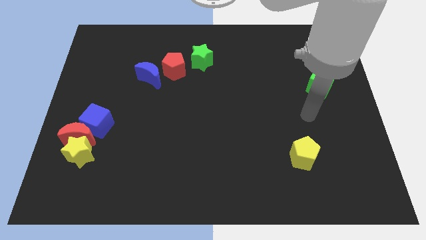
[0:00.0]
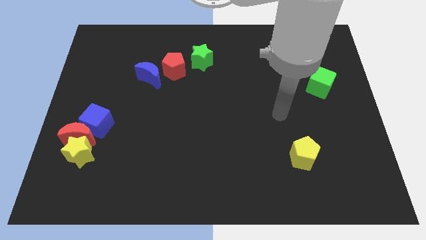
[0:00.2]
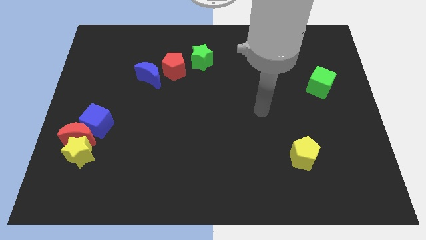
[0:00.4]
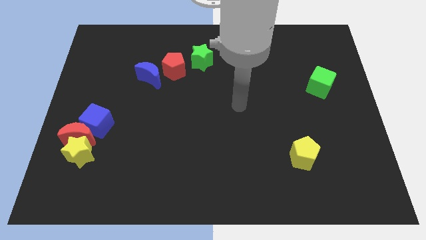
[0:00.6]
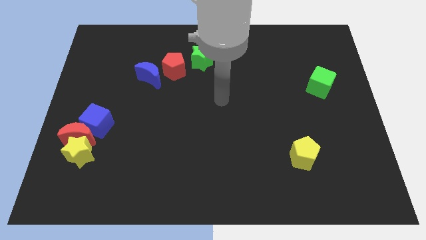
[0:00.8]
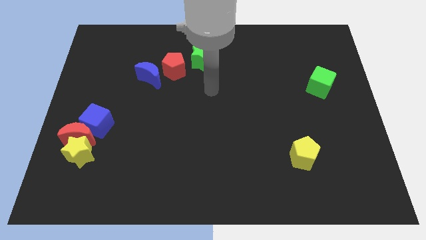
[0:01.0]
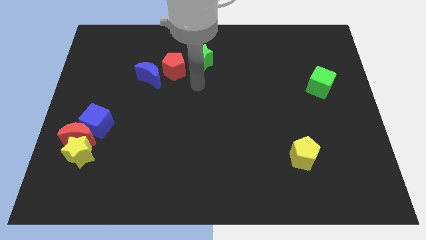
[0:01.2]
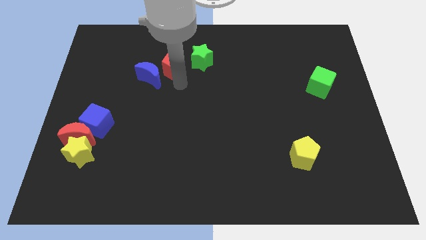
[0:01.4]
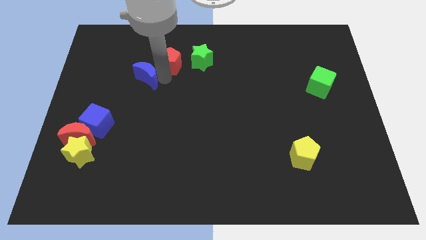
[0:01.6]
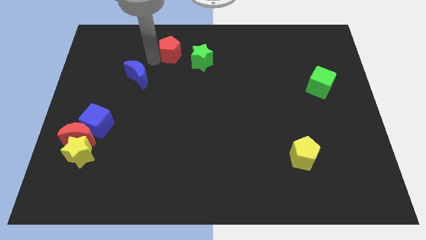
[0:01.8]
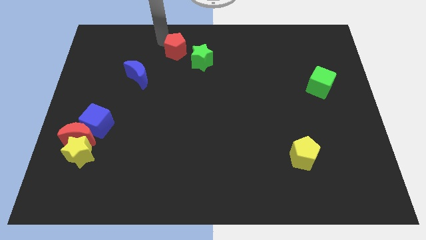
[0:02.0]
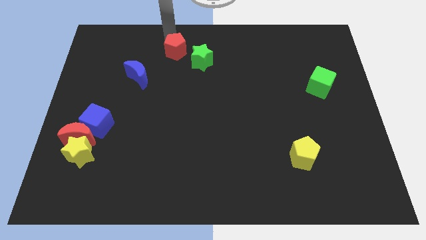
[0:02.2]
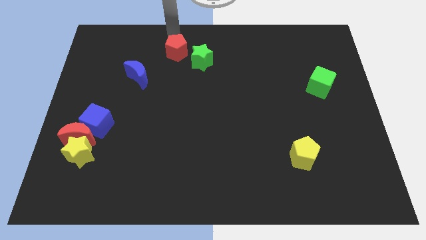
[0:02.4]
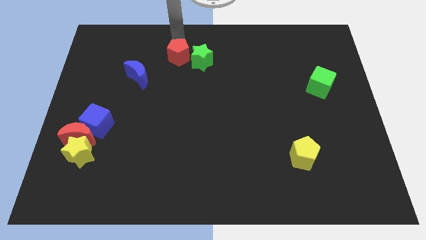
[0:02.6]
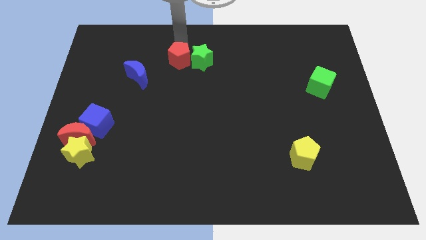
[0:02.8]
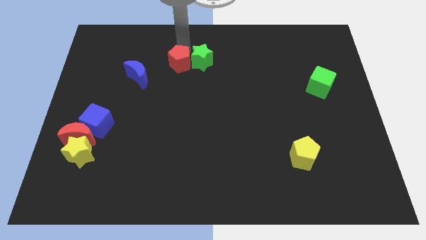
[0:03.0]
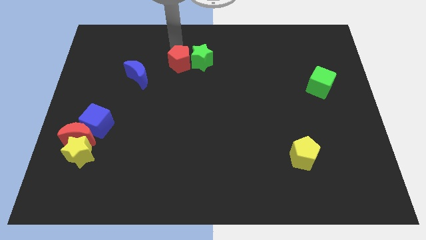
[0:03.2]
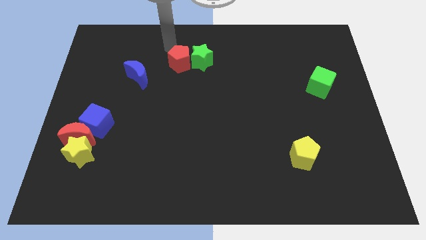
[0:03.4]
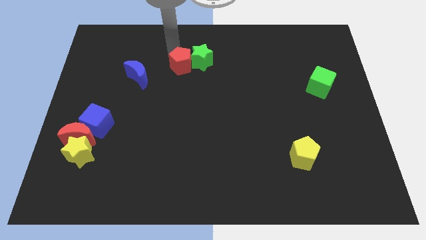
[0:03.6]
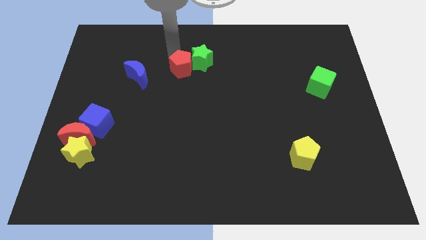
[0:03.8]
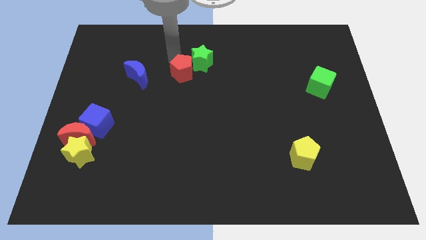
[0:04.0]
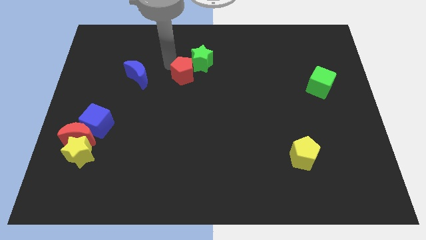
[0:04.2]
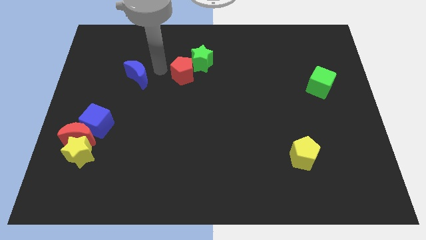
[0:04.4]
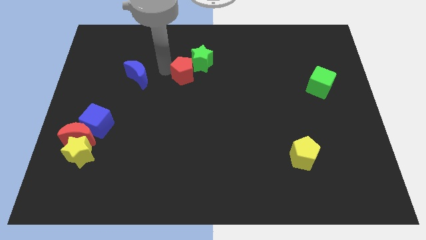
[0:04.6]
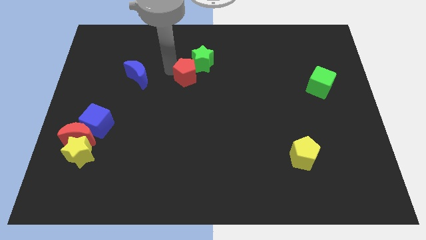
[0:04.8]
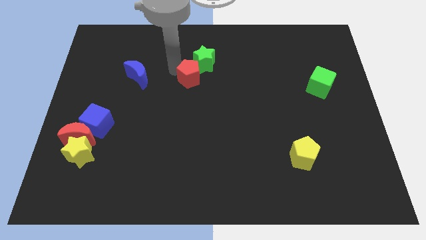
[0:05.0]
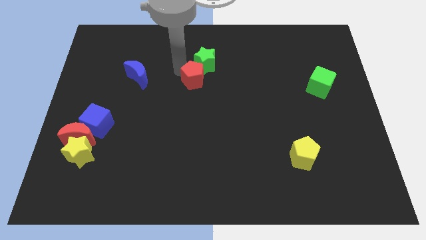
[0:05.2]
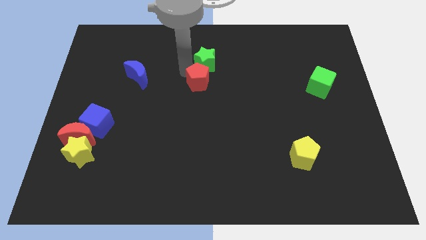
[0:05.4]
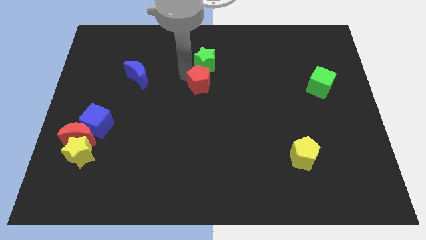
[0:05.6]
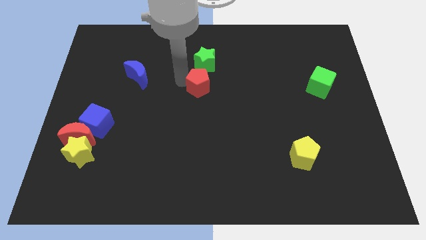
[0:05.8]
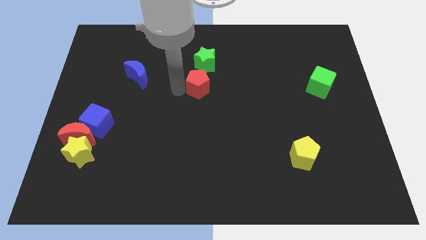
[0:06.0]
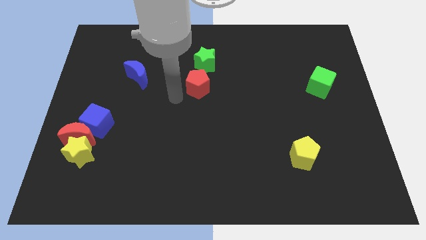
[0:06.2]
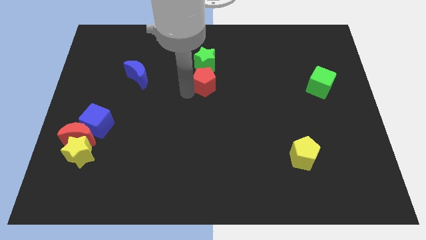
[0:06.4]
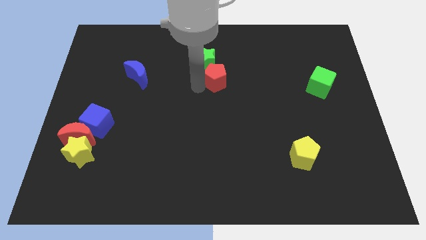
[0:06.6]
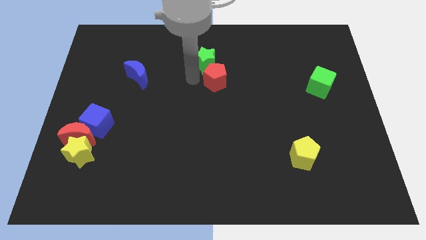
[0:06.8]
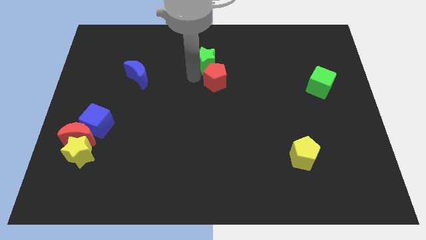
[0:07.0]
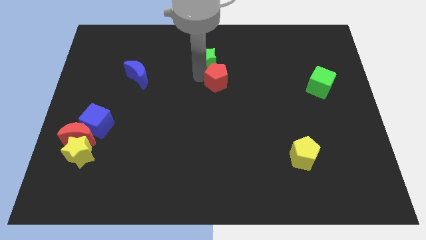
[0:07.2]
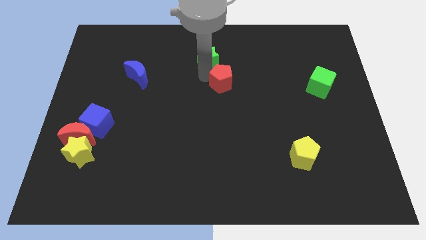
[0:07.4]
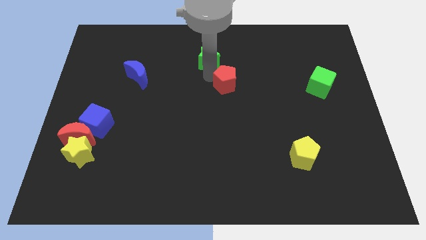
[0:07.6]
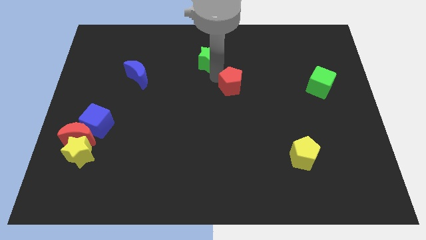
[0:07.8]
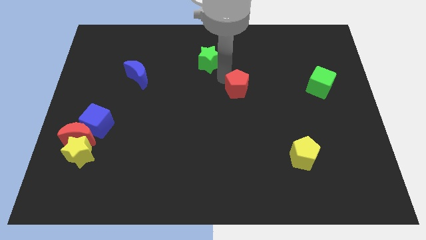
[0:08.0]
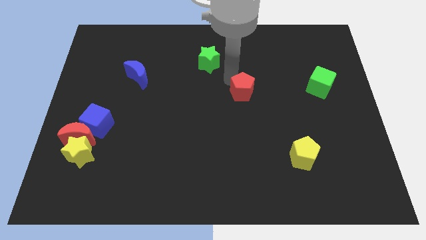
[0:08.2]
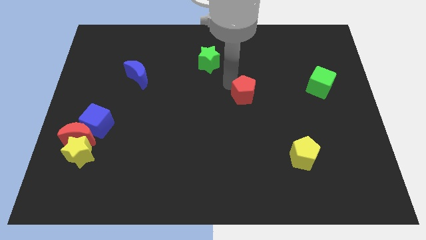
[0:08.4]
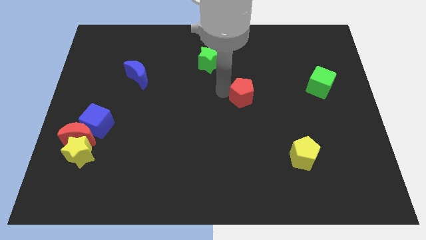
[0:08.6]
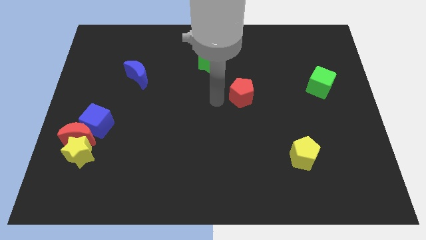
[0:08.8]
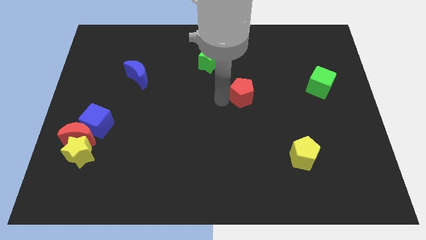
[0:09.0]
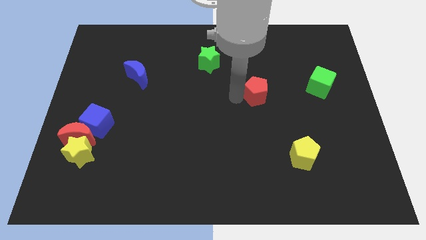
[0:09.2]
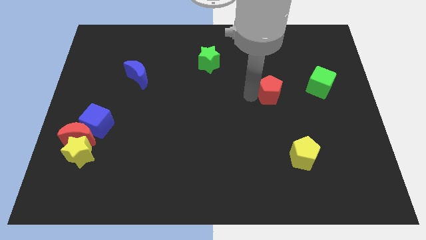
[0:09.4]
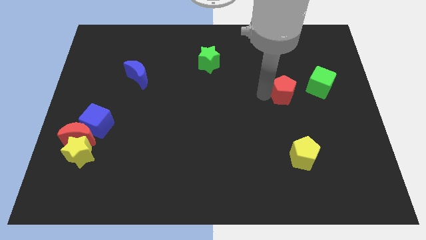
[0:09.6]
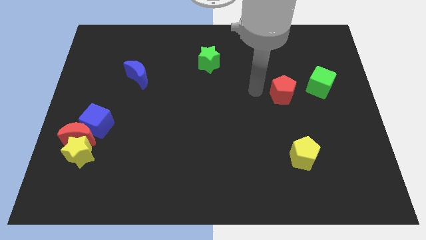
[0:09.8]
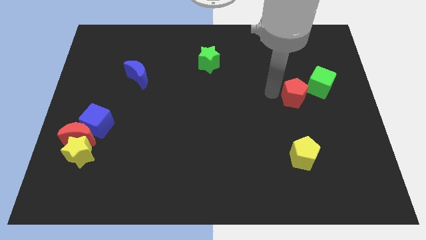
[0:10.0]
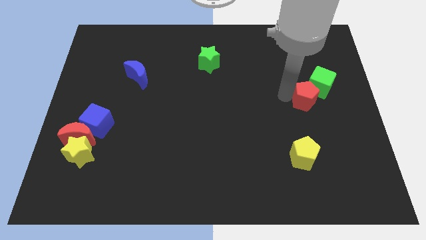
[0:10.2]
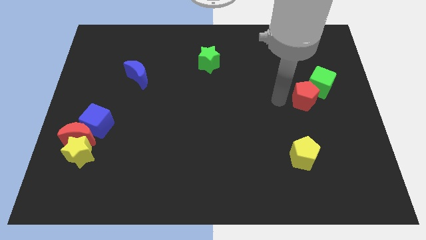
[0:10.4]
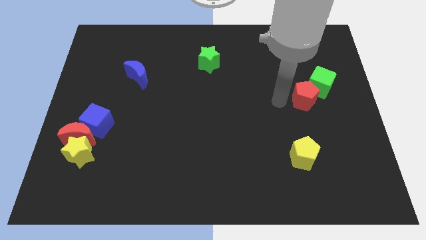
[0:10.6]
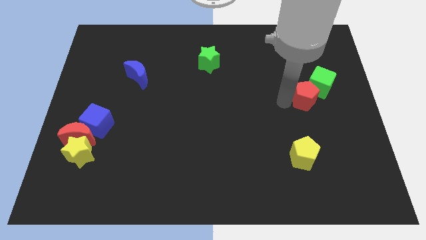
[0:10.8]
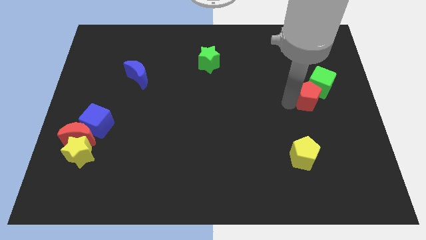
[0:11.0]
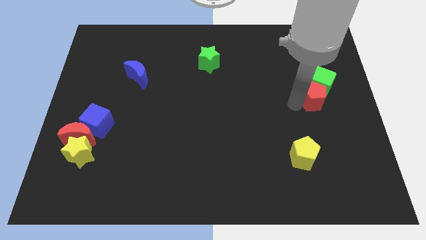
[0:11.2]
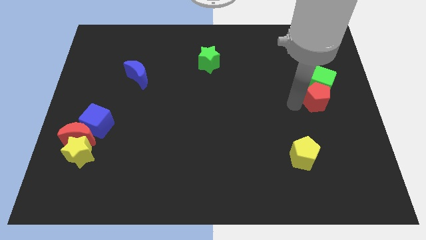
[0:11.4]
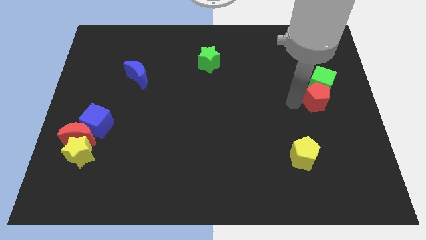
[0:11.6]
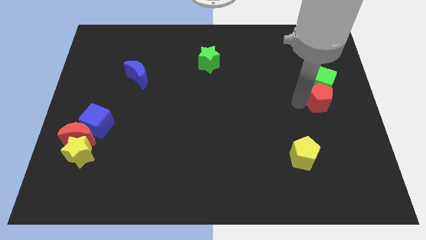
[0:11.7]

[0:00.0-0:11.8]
push the red pentagon to the right side

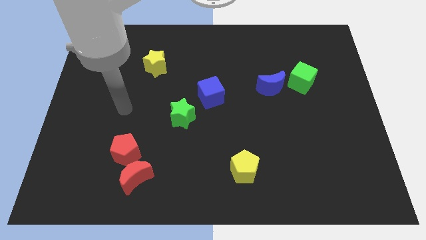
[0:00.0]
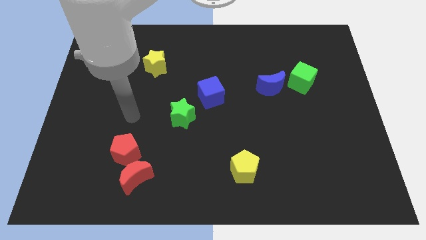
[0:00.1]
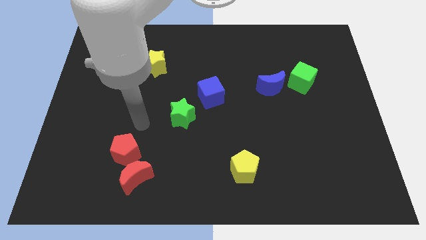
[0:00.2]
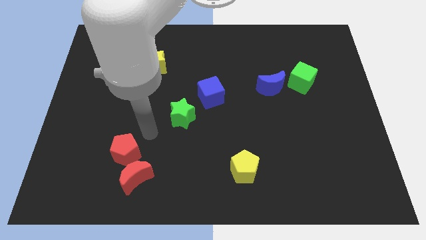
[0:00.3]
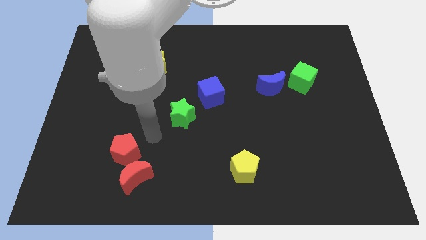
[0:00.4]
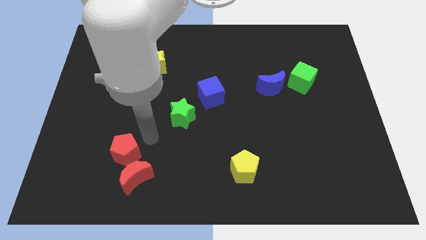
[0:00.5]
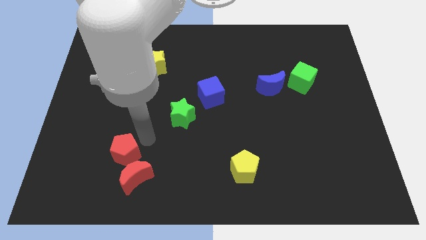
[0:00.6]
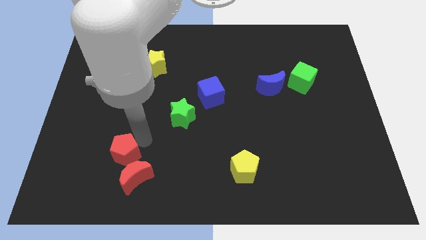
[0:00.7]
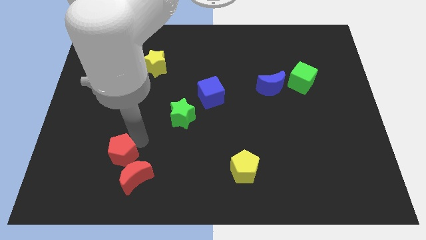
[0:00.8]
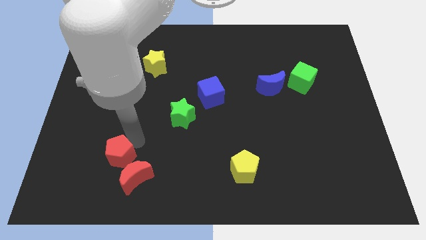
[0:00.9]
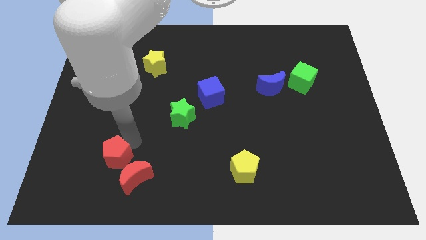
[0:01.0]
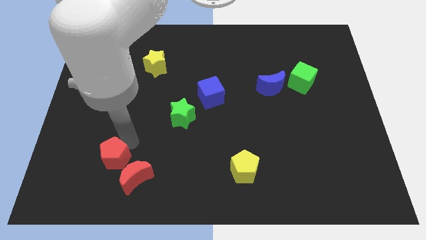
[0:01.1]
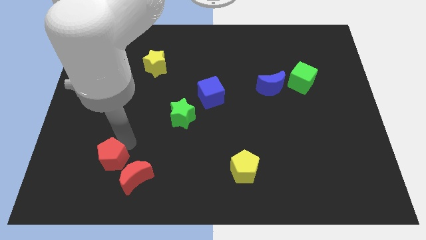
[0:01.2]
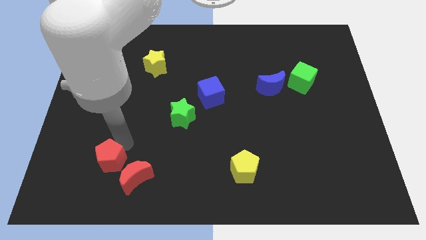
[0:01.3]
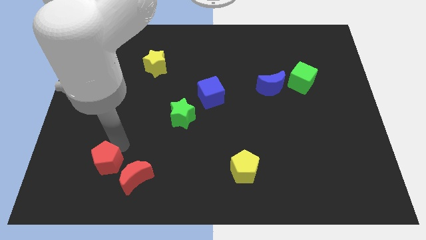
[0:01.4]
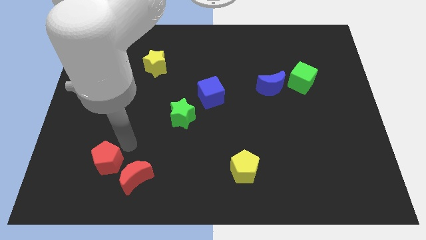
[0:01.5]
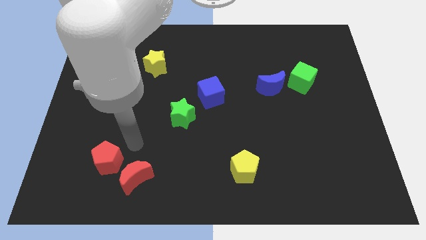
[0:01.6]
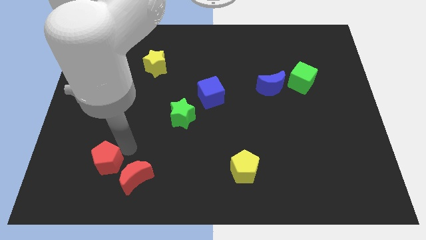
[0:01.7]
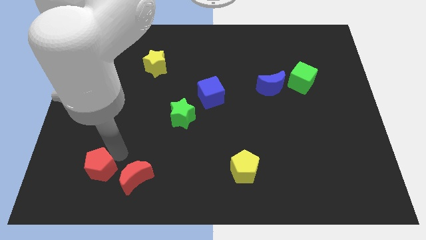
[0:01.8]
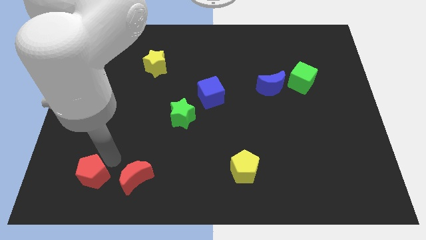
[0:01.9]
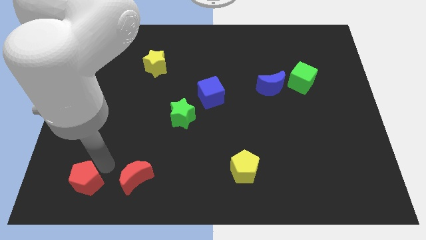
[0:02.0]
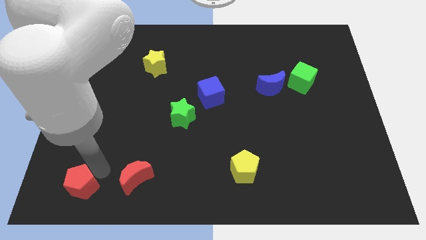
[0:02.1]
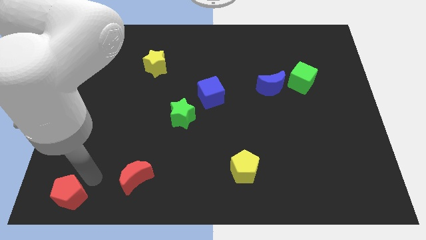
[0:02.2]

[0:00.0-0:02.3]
put the red pentagon to the bottom left of the board
